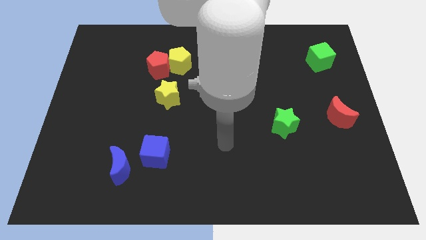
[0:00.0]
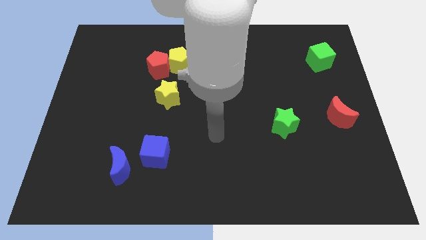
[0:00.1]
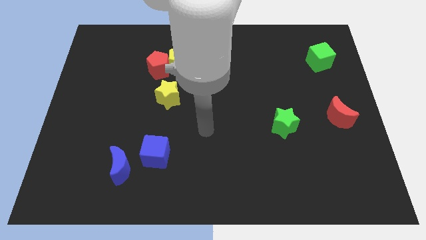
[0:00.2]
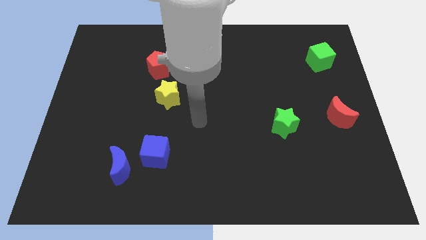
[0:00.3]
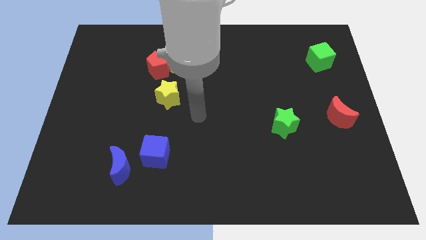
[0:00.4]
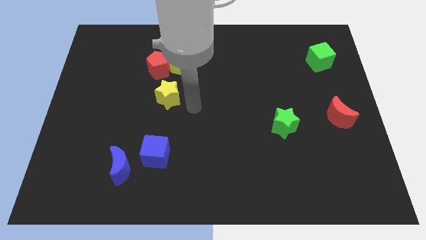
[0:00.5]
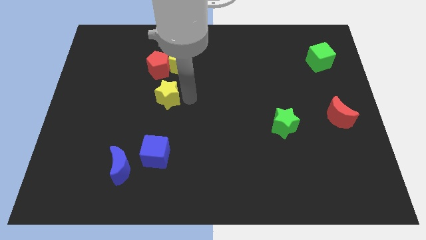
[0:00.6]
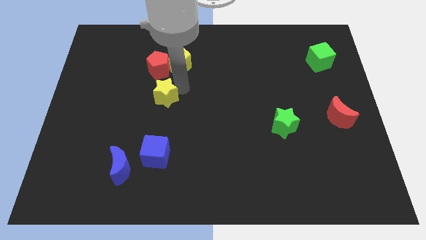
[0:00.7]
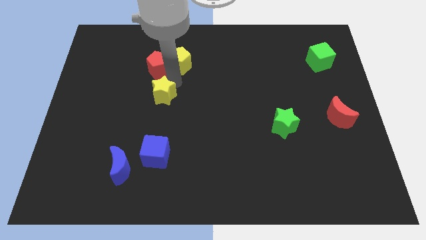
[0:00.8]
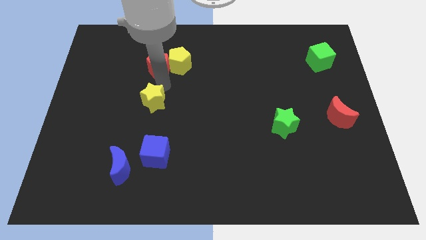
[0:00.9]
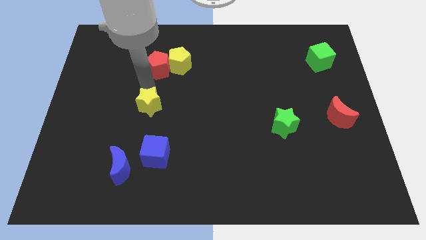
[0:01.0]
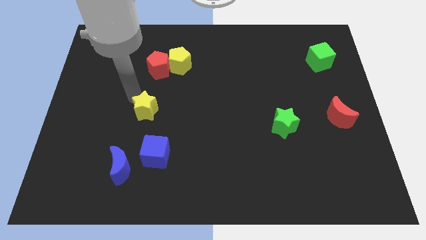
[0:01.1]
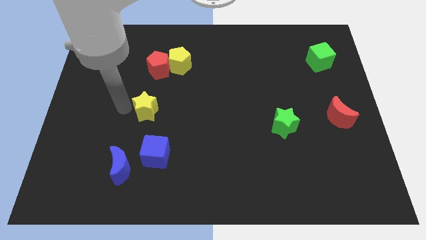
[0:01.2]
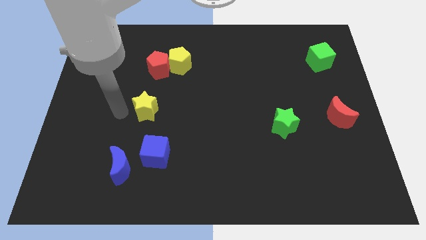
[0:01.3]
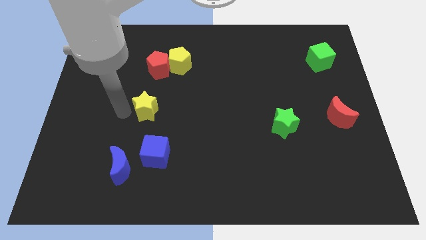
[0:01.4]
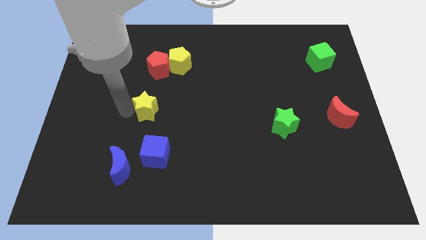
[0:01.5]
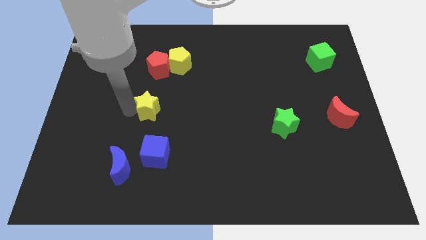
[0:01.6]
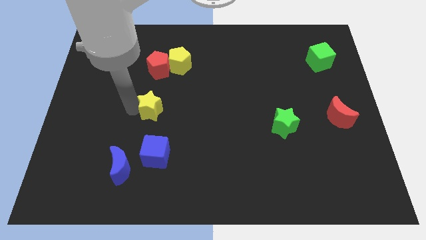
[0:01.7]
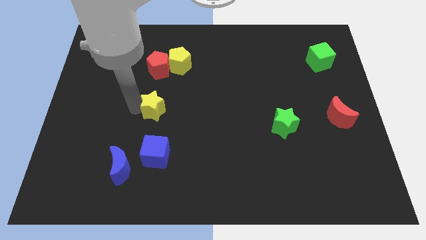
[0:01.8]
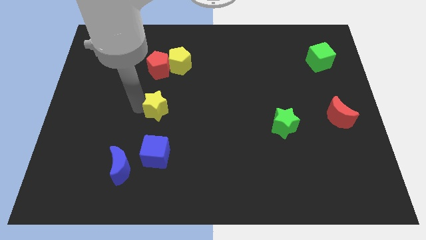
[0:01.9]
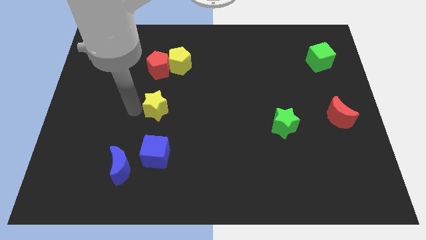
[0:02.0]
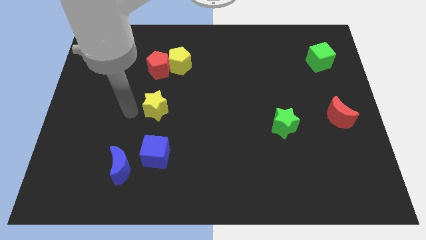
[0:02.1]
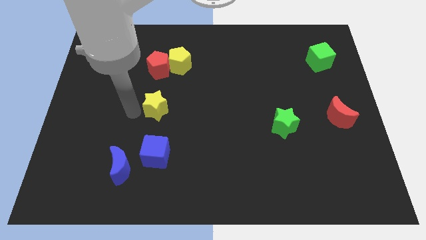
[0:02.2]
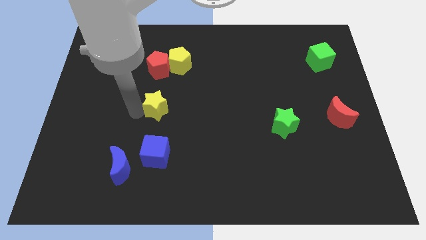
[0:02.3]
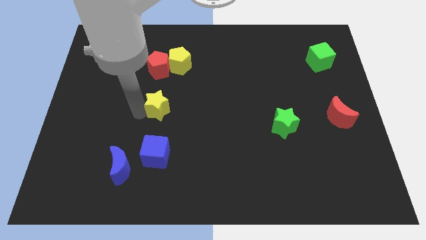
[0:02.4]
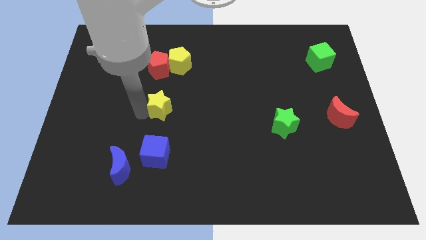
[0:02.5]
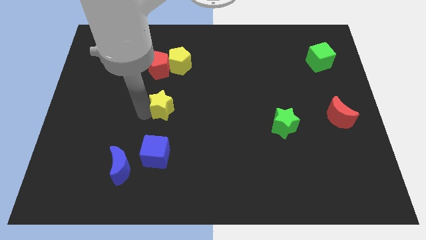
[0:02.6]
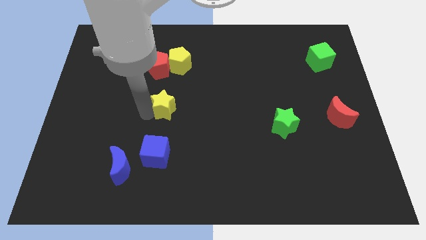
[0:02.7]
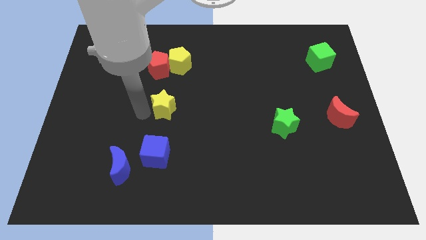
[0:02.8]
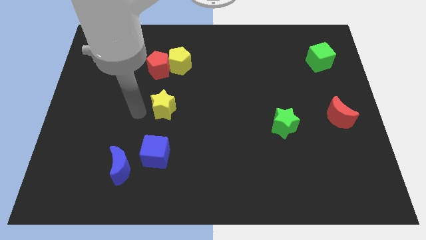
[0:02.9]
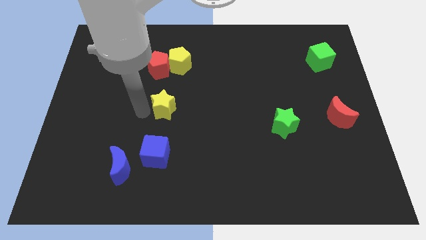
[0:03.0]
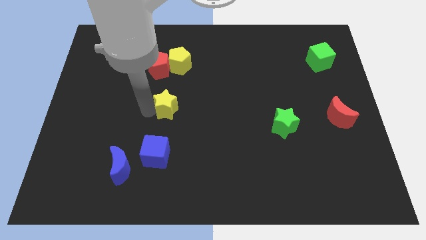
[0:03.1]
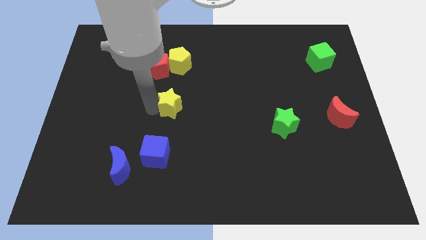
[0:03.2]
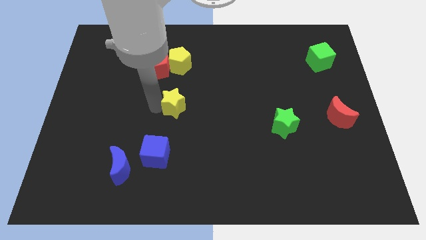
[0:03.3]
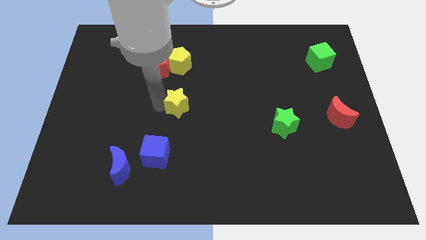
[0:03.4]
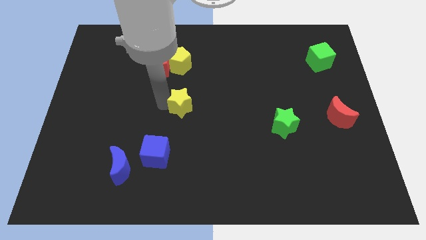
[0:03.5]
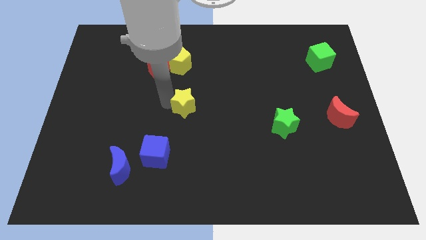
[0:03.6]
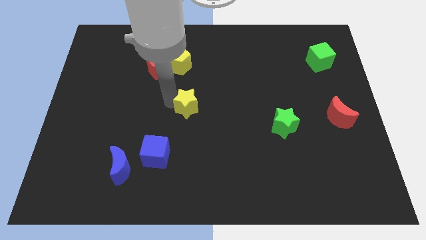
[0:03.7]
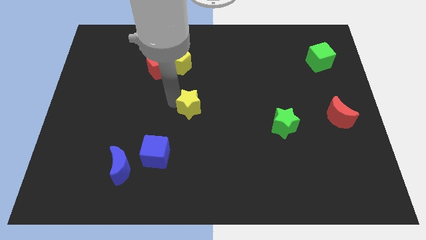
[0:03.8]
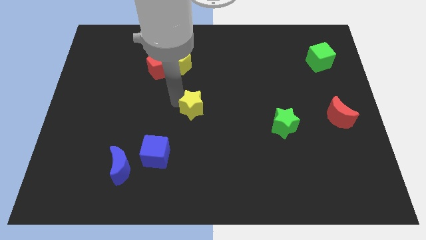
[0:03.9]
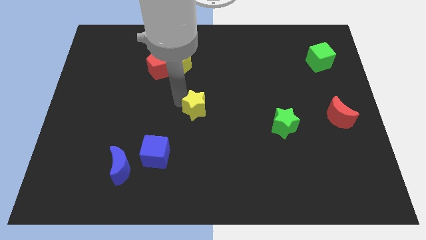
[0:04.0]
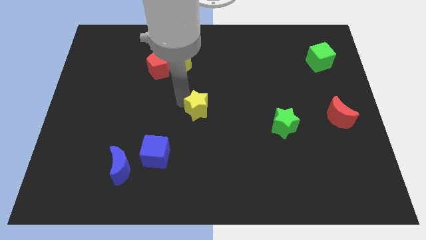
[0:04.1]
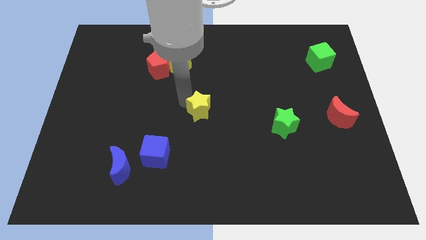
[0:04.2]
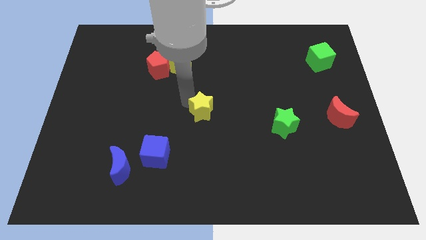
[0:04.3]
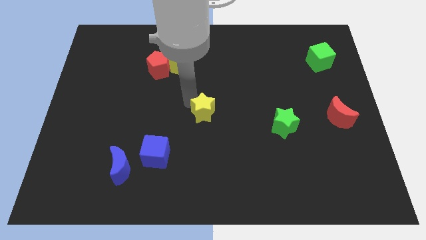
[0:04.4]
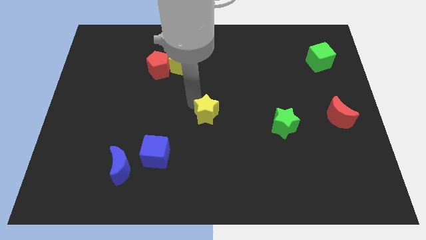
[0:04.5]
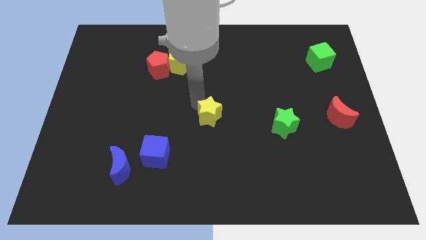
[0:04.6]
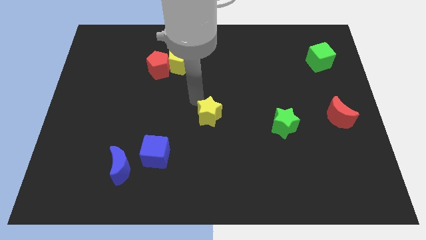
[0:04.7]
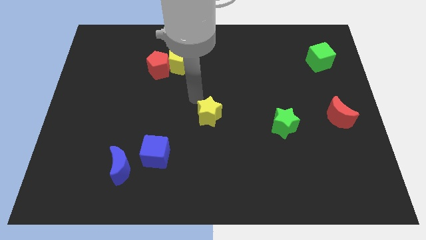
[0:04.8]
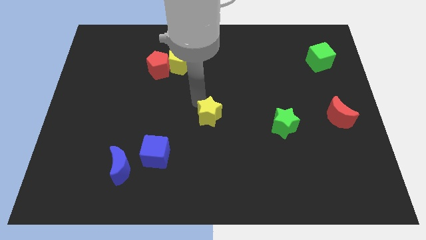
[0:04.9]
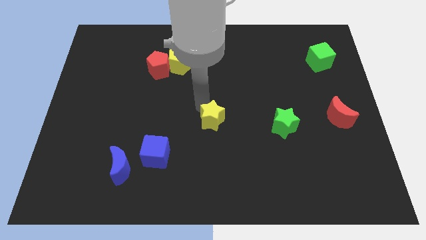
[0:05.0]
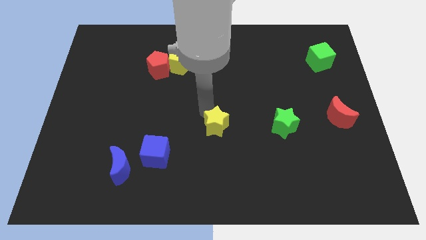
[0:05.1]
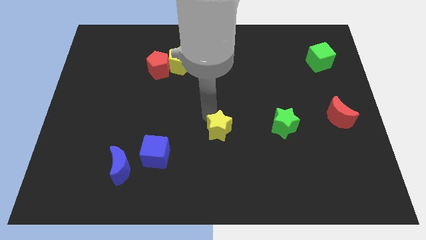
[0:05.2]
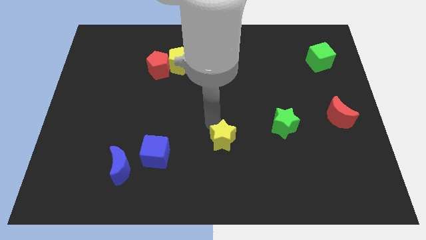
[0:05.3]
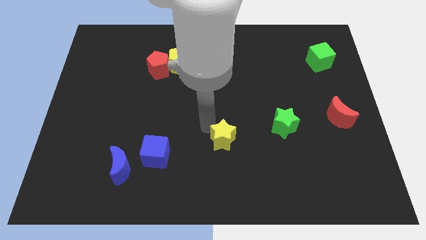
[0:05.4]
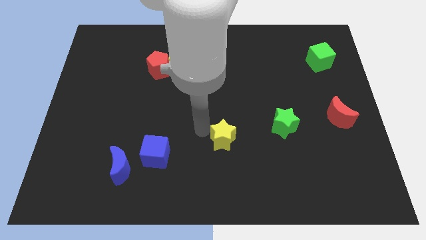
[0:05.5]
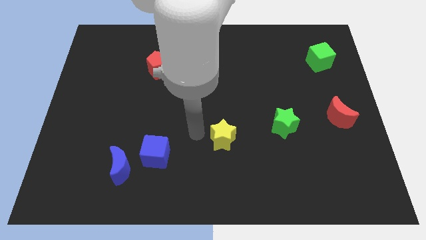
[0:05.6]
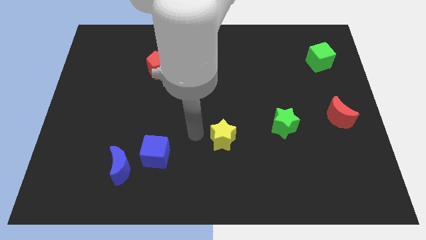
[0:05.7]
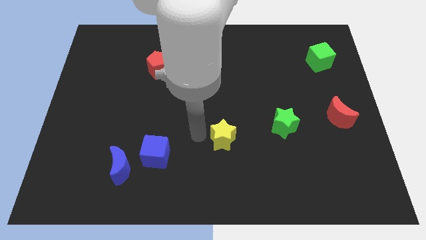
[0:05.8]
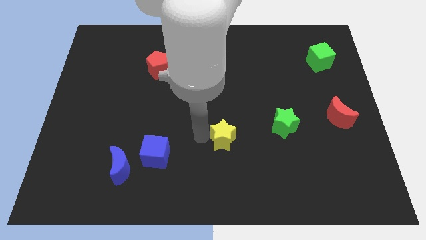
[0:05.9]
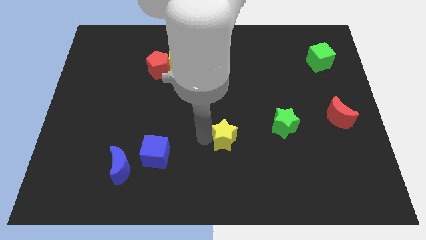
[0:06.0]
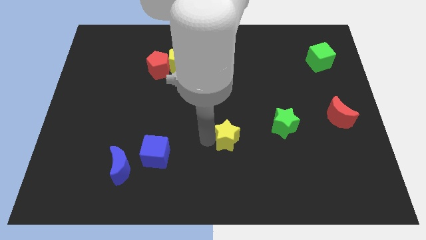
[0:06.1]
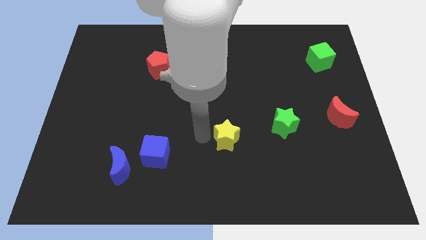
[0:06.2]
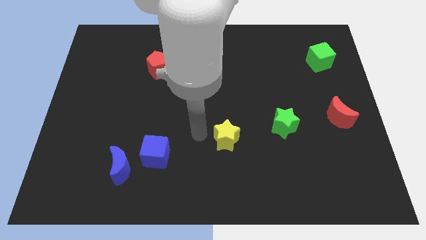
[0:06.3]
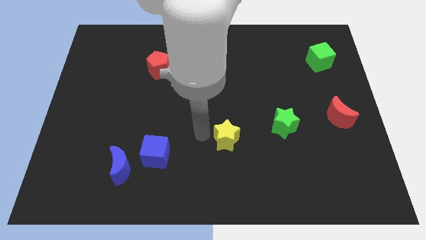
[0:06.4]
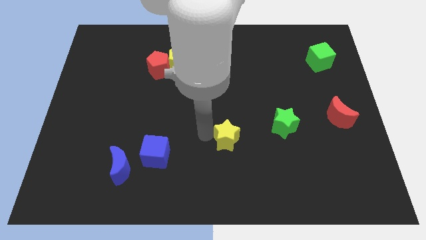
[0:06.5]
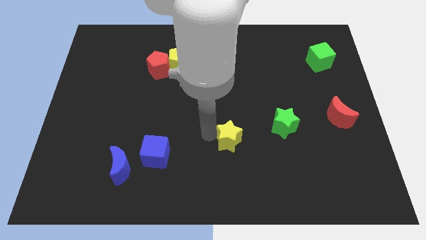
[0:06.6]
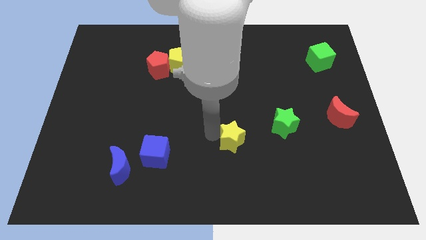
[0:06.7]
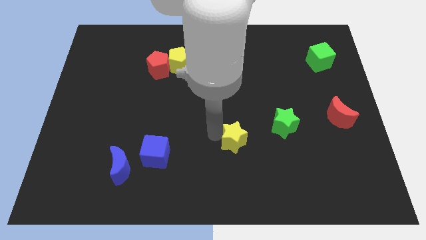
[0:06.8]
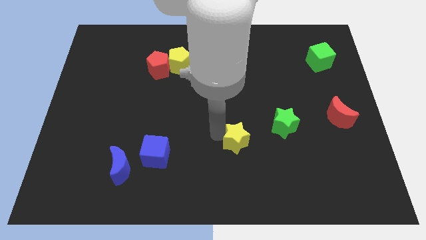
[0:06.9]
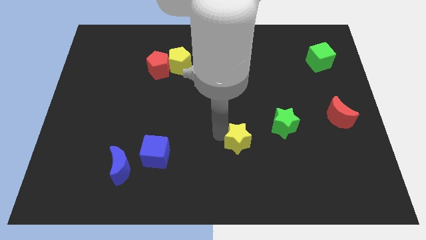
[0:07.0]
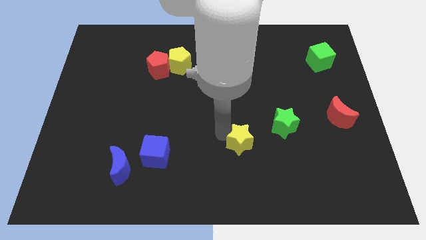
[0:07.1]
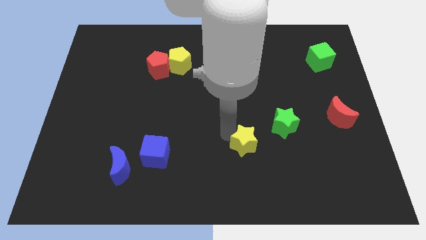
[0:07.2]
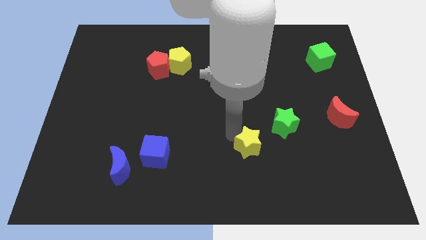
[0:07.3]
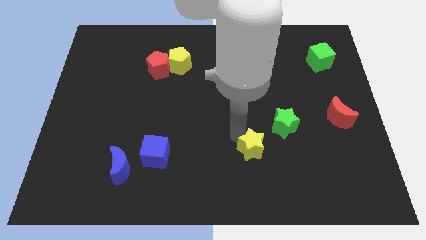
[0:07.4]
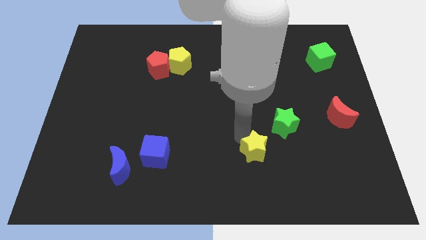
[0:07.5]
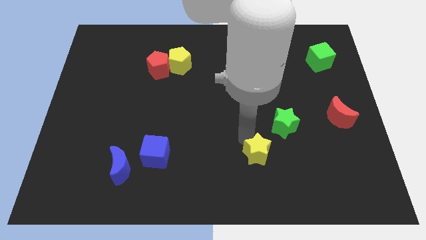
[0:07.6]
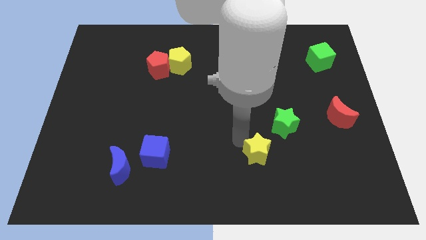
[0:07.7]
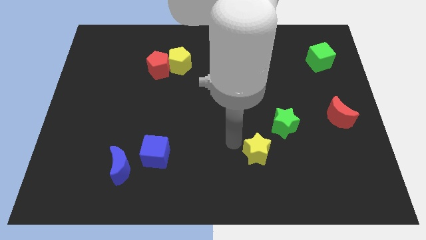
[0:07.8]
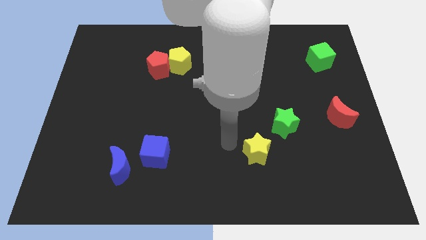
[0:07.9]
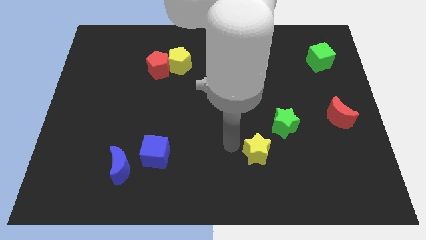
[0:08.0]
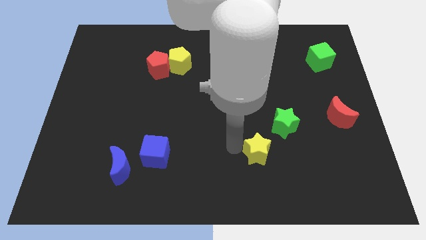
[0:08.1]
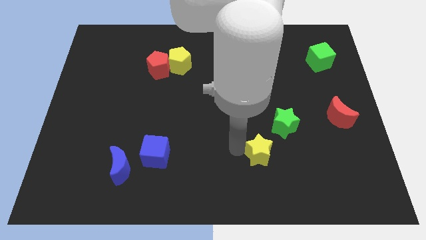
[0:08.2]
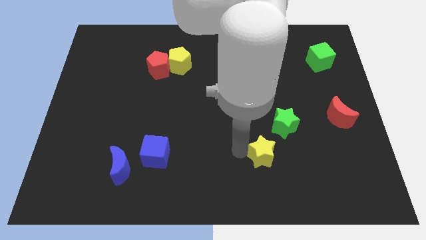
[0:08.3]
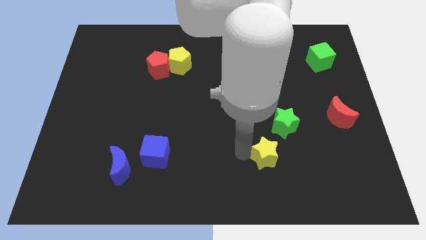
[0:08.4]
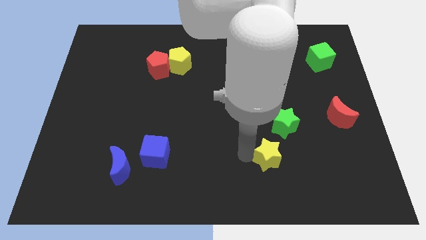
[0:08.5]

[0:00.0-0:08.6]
push the yellow star to the bottom side of the green star
